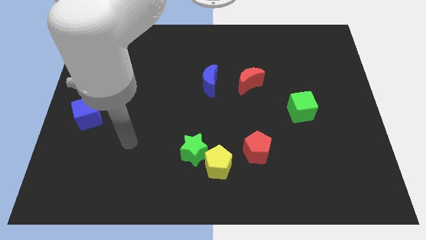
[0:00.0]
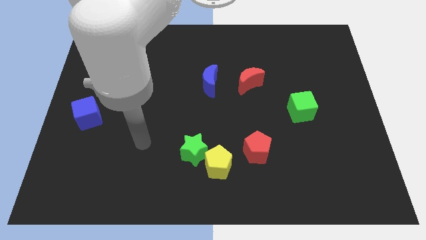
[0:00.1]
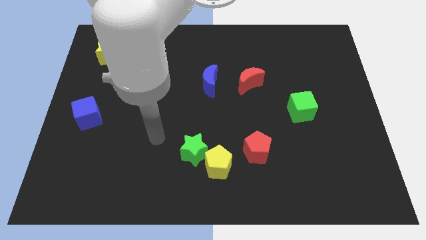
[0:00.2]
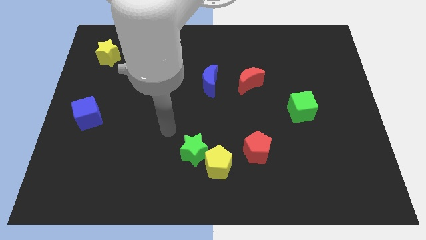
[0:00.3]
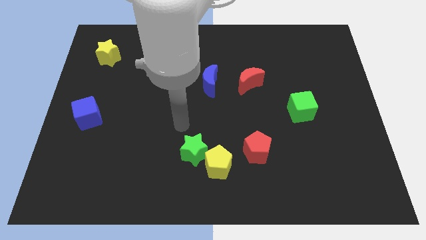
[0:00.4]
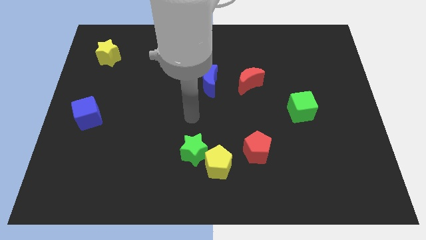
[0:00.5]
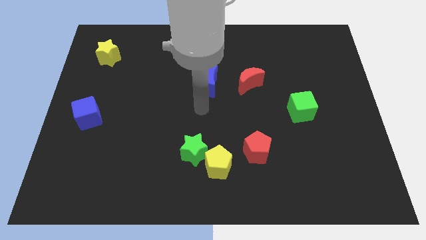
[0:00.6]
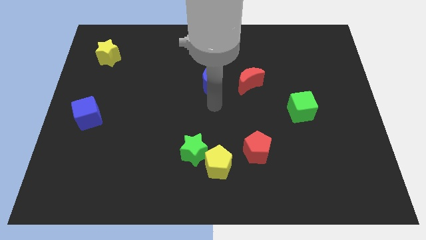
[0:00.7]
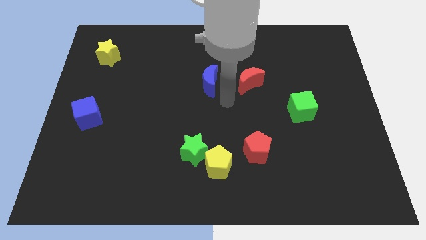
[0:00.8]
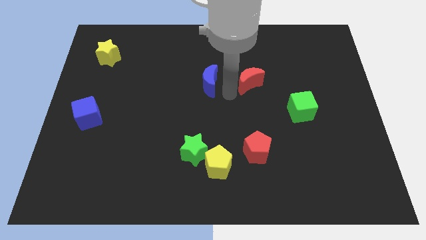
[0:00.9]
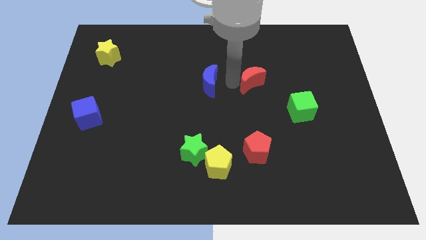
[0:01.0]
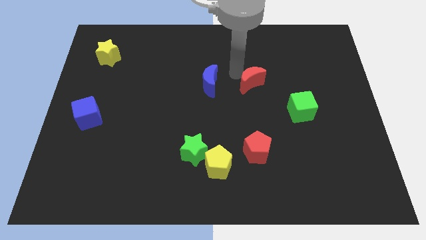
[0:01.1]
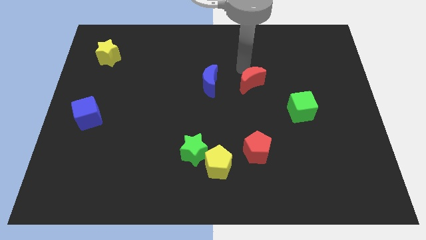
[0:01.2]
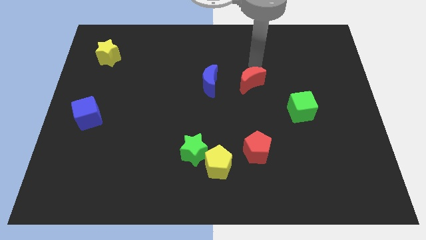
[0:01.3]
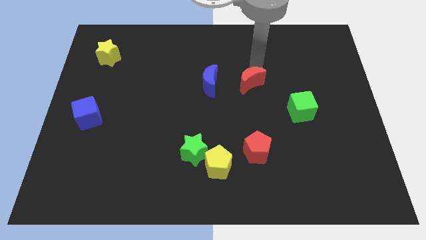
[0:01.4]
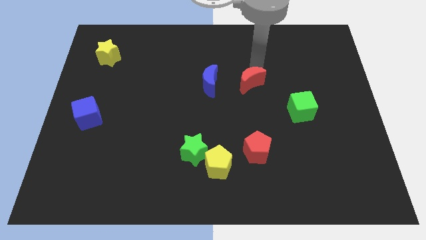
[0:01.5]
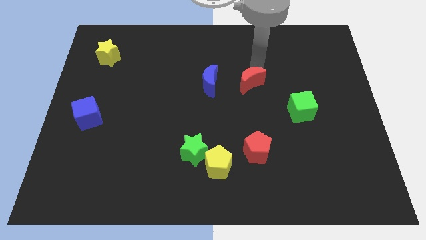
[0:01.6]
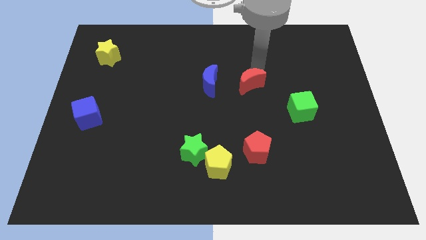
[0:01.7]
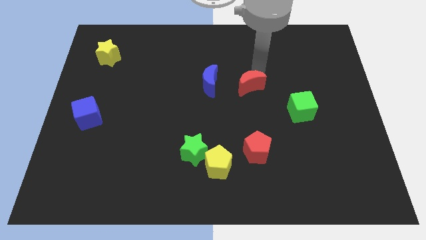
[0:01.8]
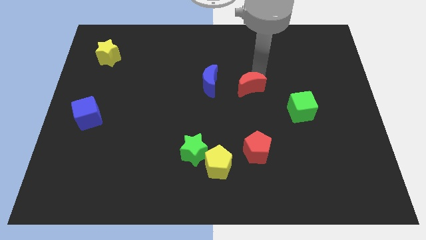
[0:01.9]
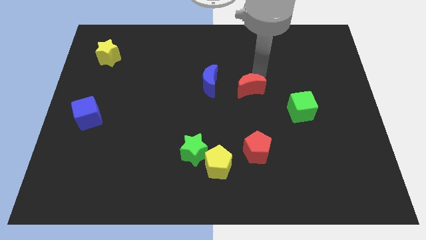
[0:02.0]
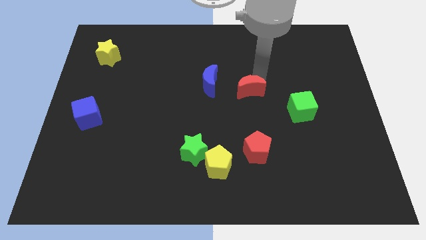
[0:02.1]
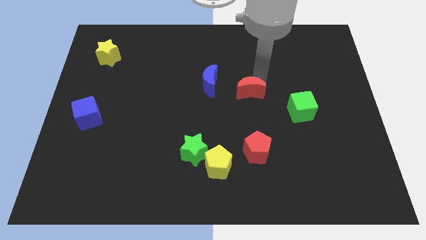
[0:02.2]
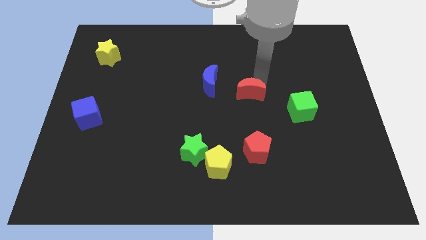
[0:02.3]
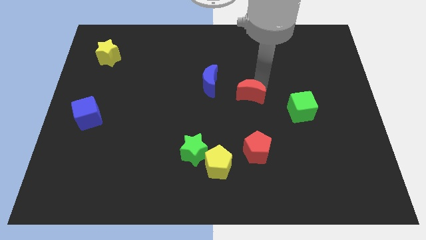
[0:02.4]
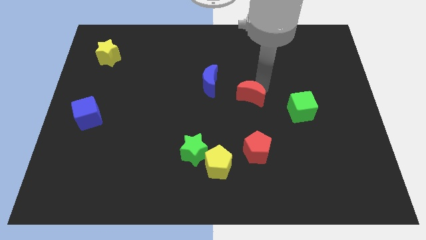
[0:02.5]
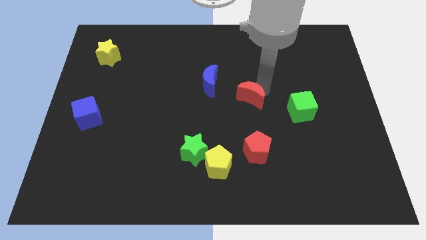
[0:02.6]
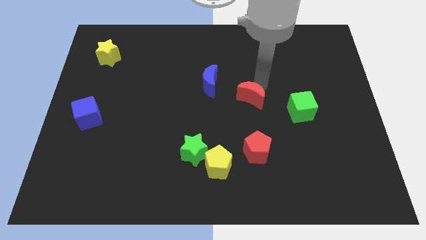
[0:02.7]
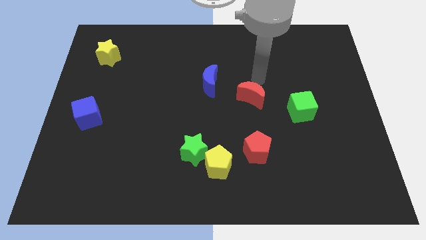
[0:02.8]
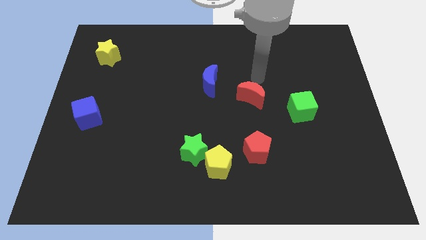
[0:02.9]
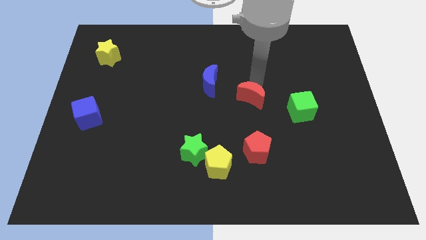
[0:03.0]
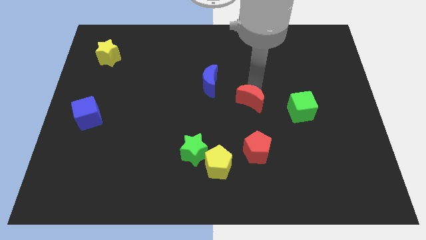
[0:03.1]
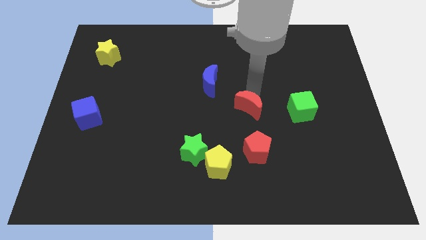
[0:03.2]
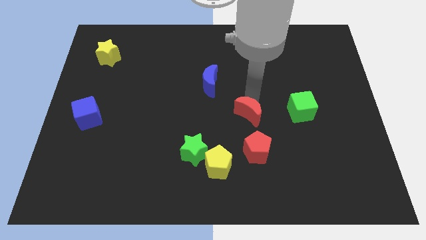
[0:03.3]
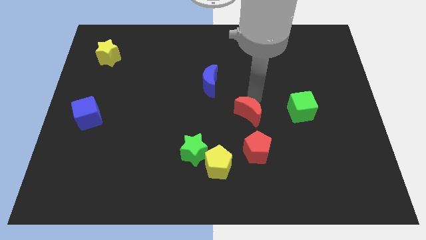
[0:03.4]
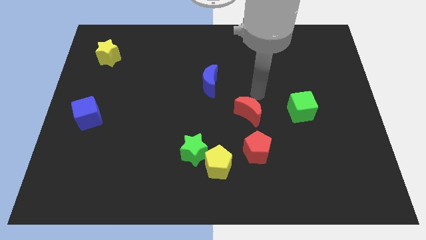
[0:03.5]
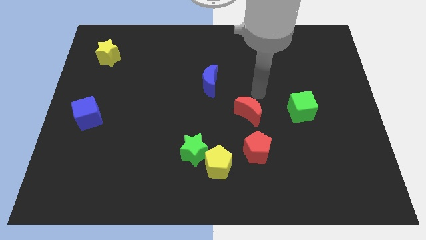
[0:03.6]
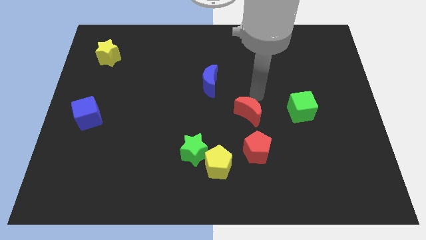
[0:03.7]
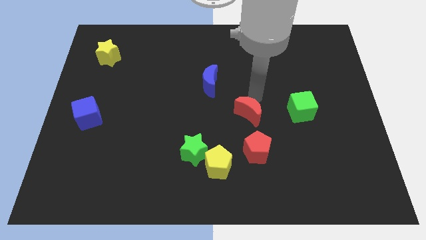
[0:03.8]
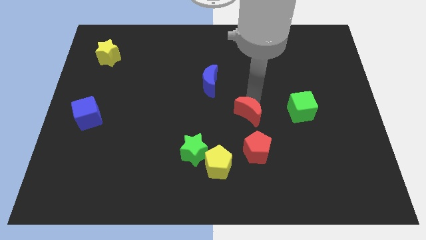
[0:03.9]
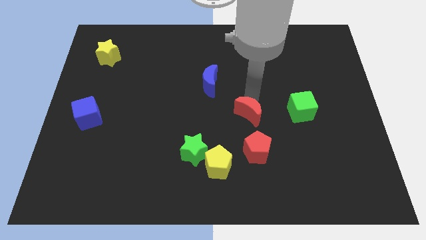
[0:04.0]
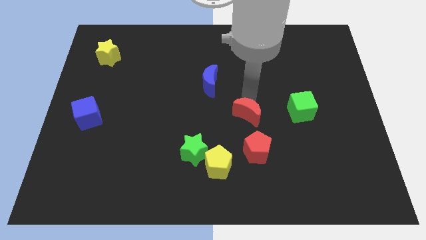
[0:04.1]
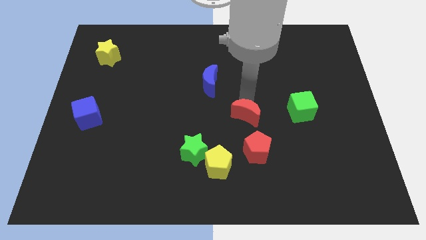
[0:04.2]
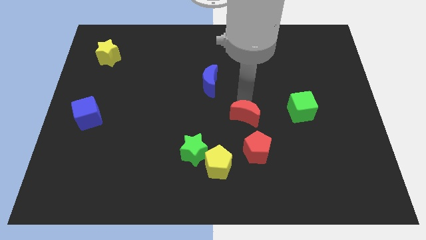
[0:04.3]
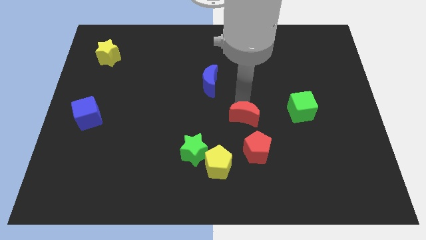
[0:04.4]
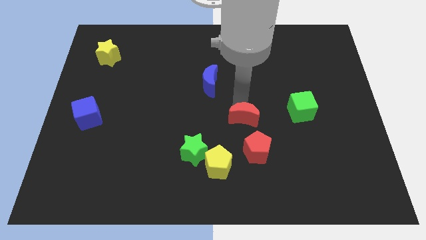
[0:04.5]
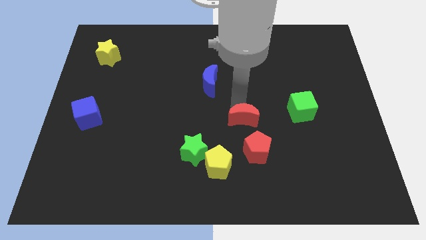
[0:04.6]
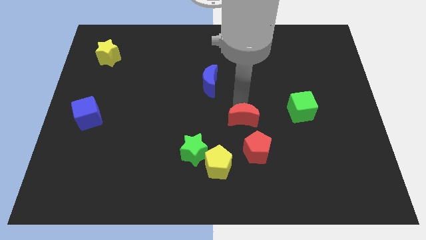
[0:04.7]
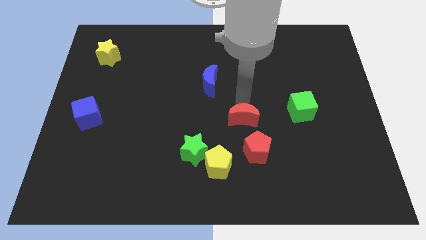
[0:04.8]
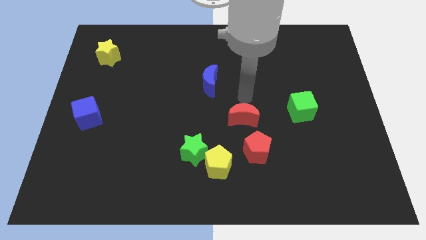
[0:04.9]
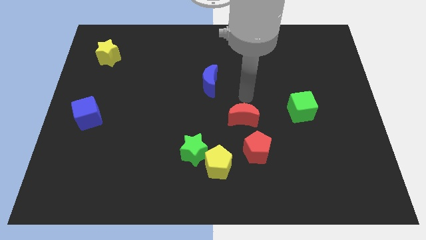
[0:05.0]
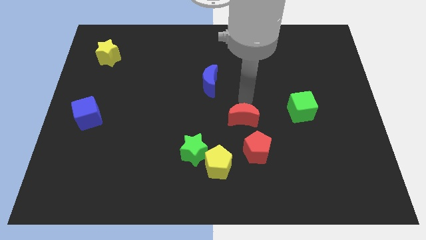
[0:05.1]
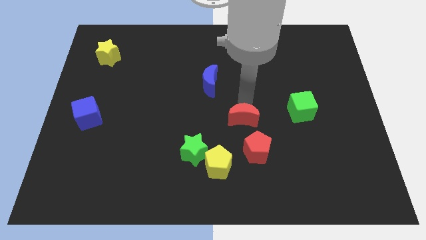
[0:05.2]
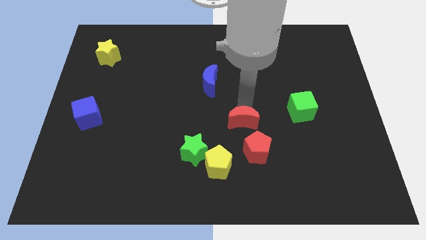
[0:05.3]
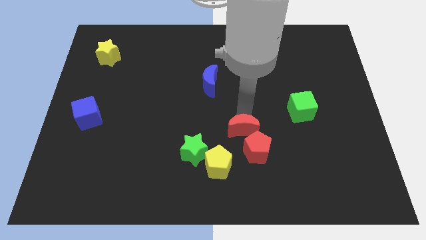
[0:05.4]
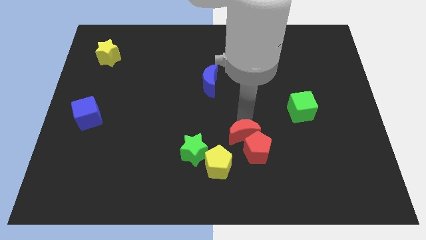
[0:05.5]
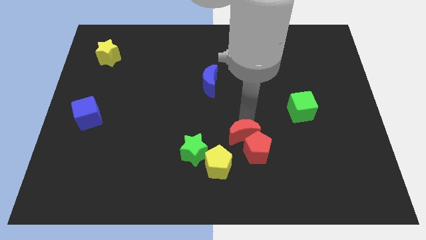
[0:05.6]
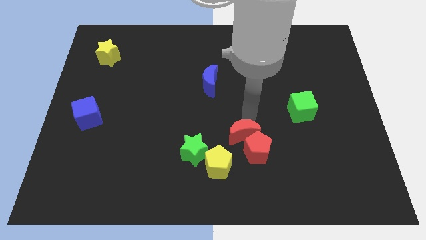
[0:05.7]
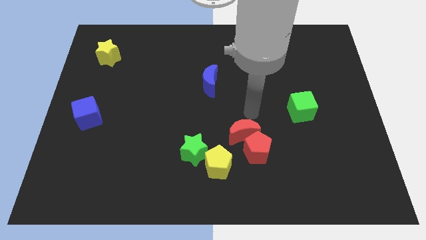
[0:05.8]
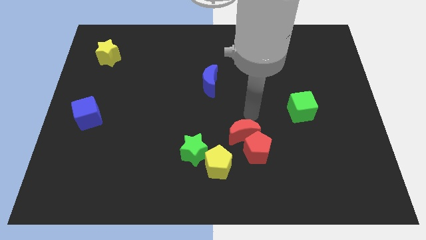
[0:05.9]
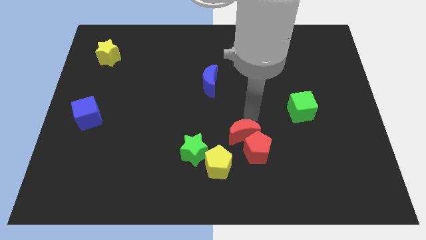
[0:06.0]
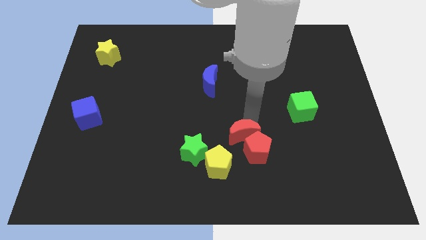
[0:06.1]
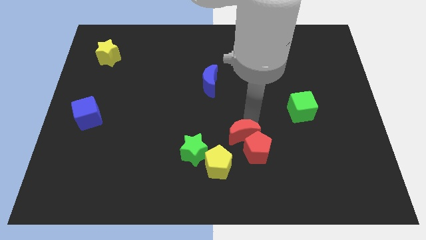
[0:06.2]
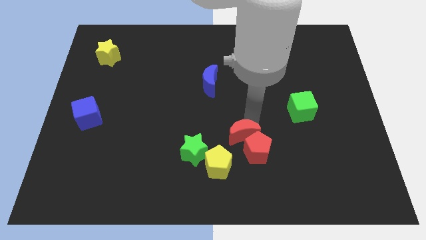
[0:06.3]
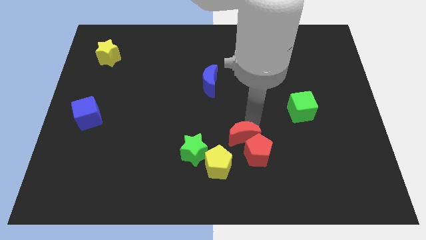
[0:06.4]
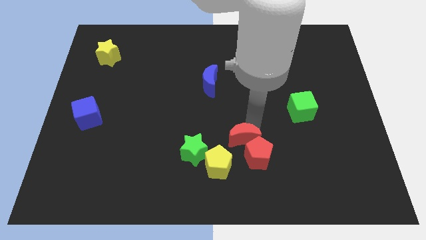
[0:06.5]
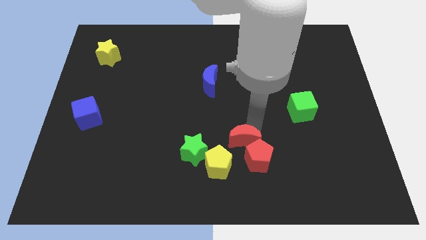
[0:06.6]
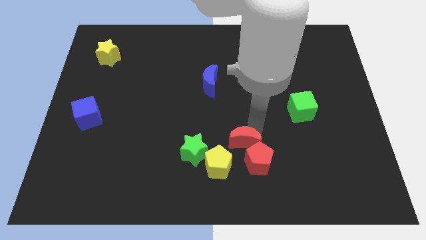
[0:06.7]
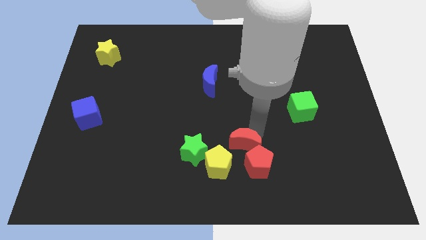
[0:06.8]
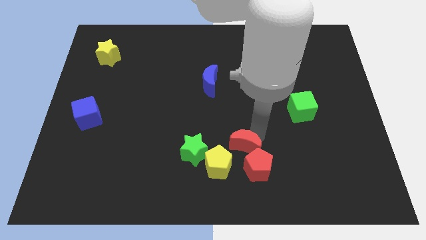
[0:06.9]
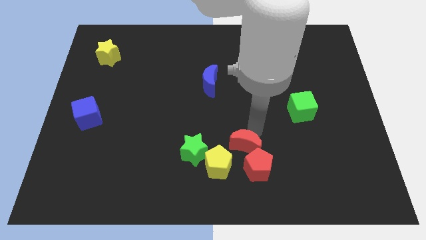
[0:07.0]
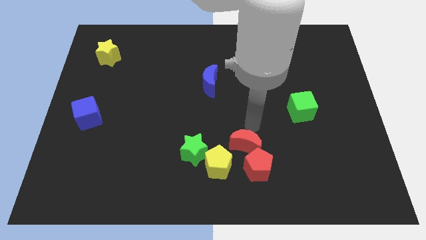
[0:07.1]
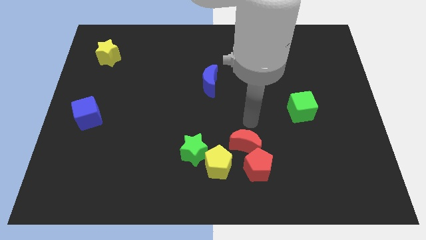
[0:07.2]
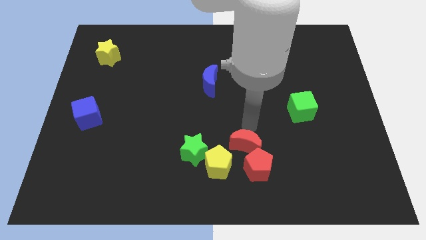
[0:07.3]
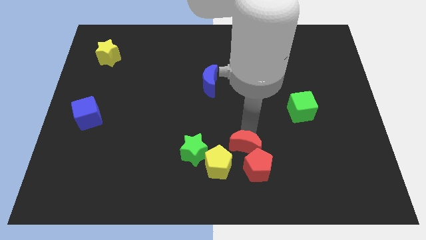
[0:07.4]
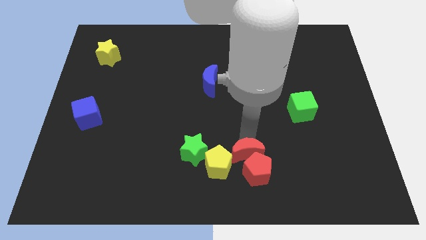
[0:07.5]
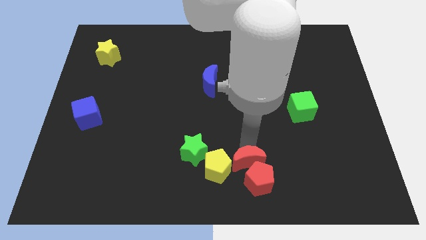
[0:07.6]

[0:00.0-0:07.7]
put the red moon to the bottom
